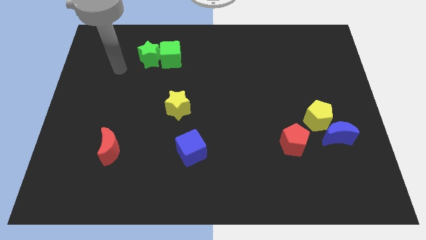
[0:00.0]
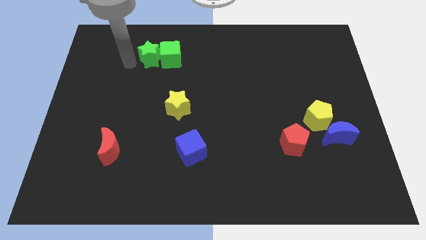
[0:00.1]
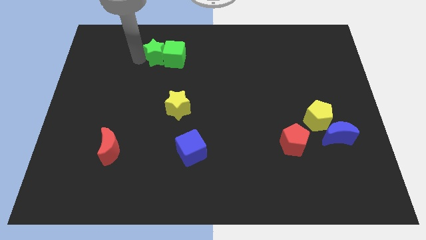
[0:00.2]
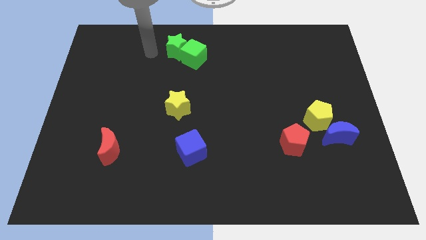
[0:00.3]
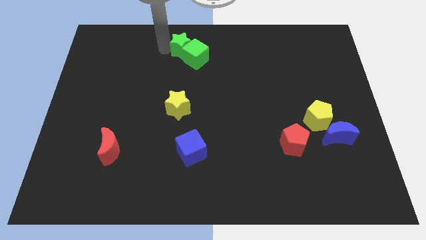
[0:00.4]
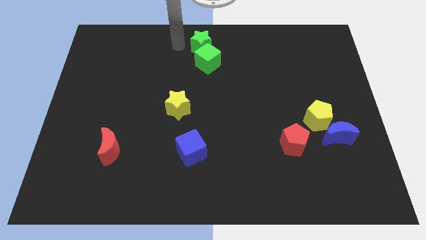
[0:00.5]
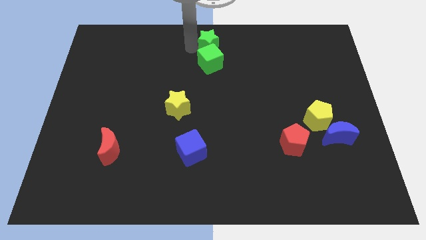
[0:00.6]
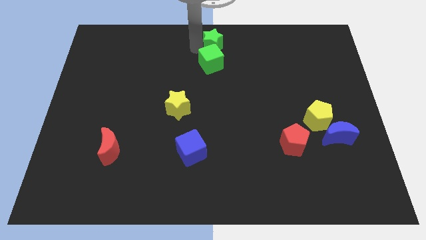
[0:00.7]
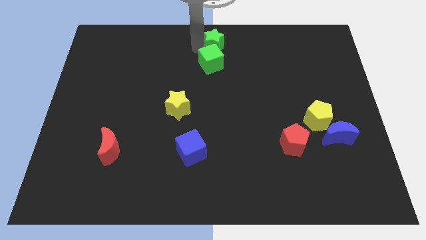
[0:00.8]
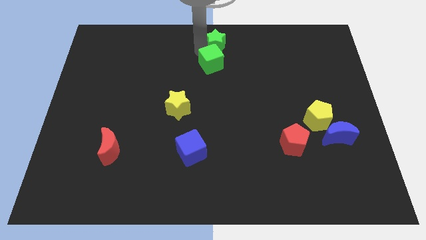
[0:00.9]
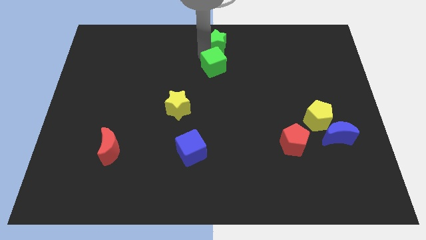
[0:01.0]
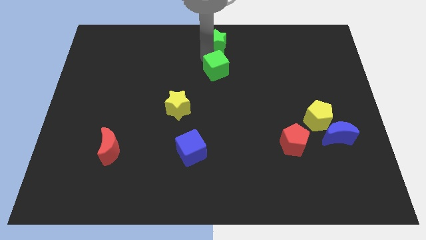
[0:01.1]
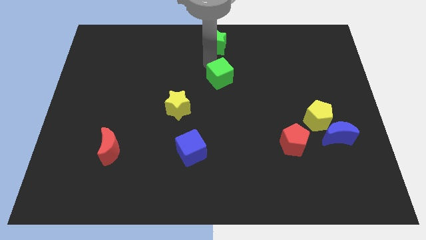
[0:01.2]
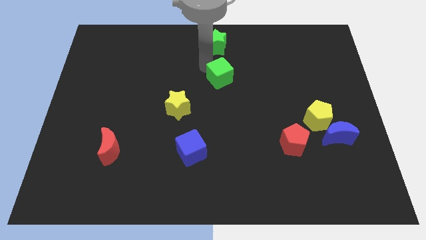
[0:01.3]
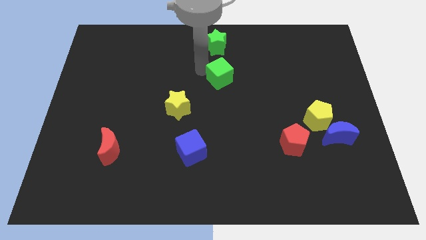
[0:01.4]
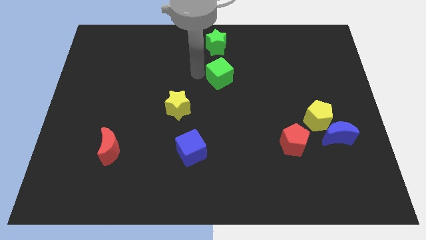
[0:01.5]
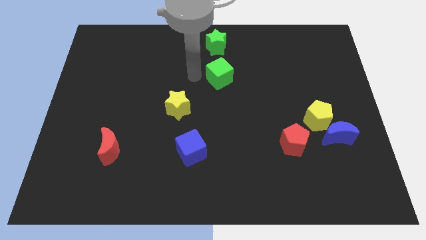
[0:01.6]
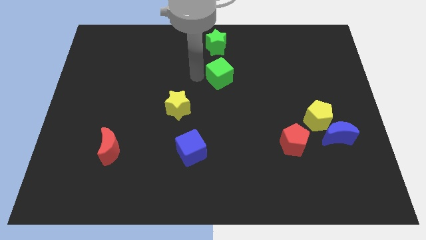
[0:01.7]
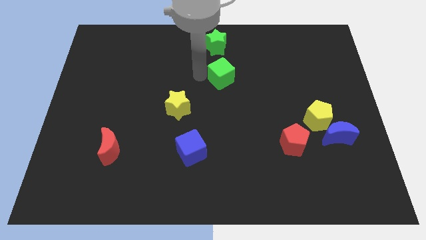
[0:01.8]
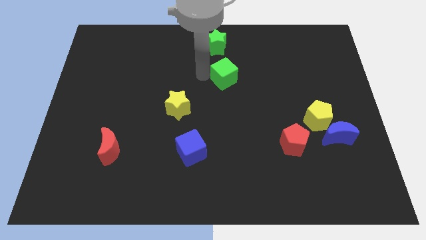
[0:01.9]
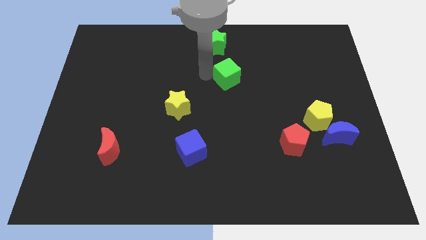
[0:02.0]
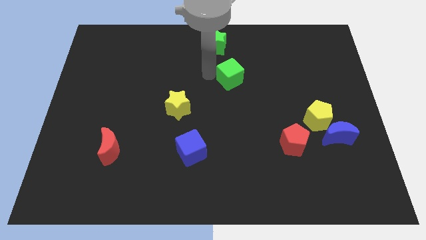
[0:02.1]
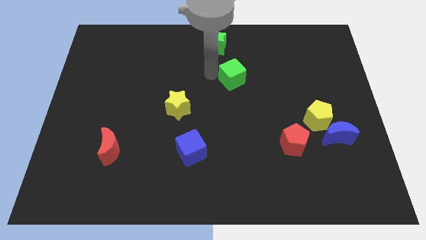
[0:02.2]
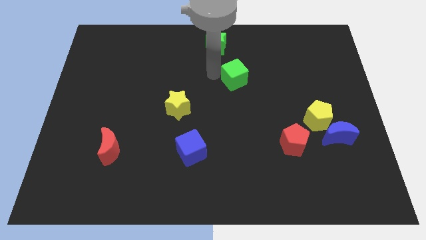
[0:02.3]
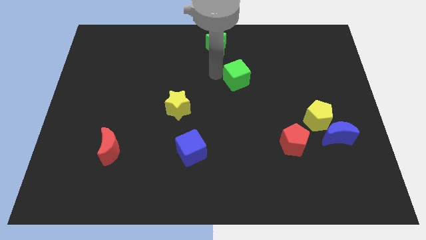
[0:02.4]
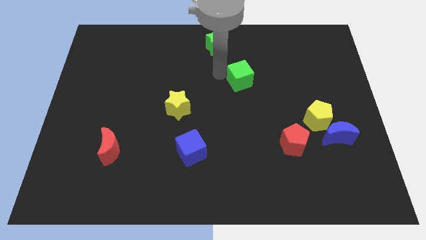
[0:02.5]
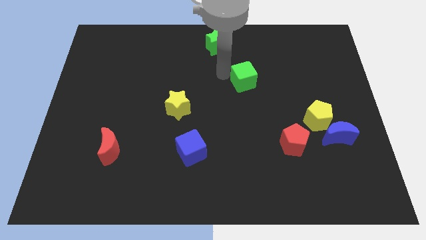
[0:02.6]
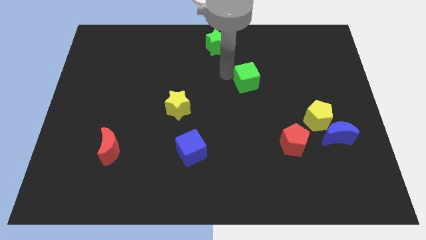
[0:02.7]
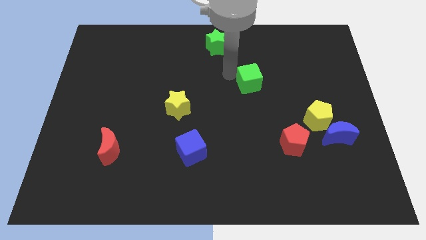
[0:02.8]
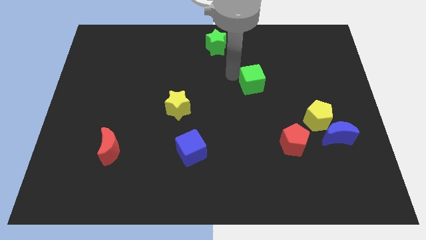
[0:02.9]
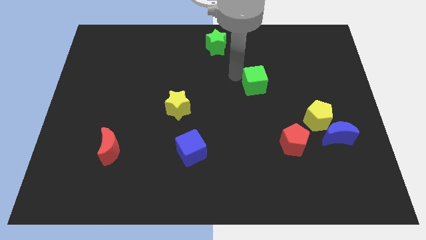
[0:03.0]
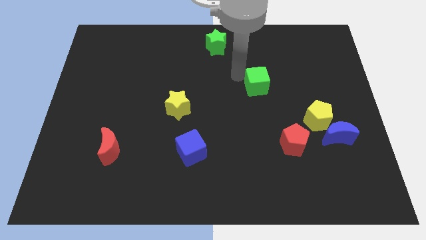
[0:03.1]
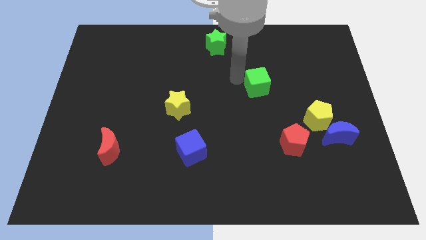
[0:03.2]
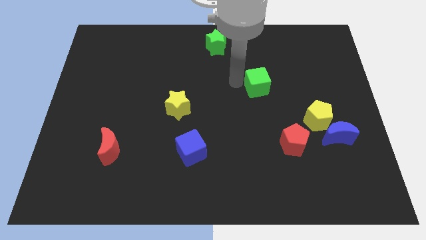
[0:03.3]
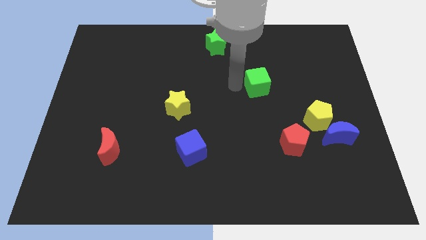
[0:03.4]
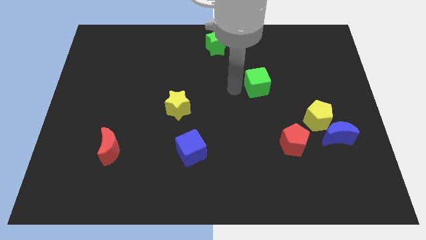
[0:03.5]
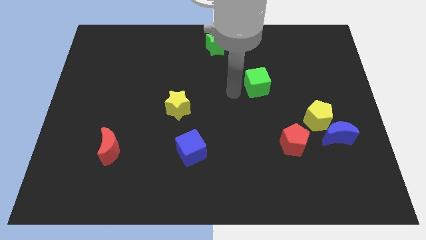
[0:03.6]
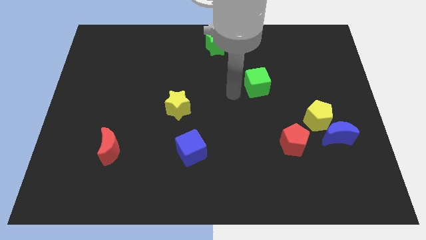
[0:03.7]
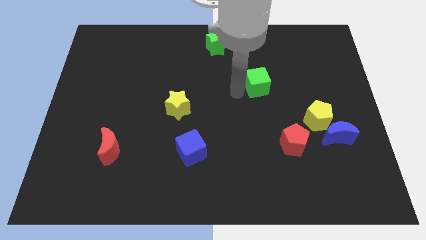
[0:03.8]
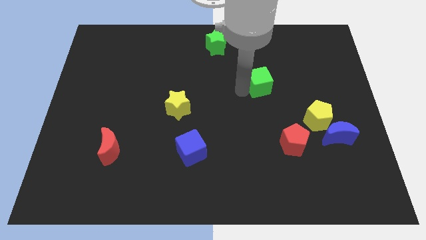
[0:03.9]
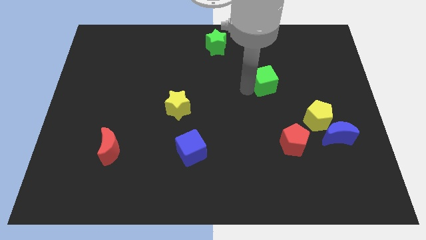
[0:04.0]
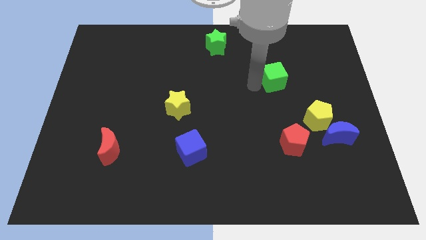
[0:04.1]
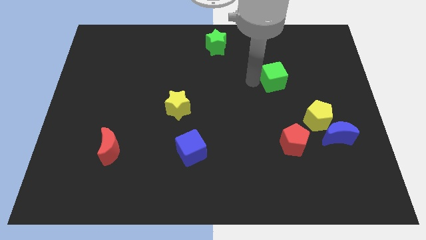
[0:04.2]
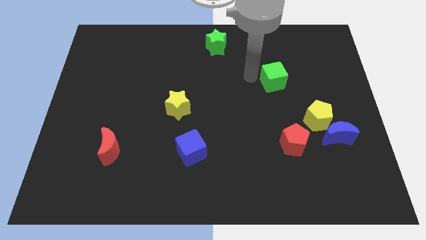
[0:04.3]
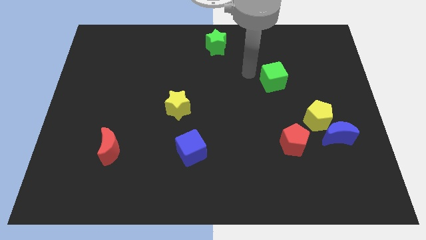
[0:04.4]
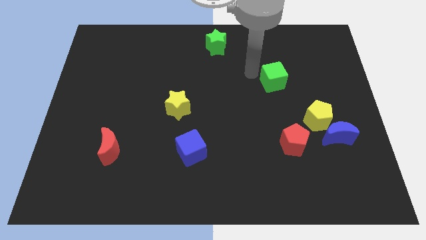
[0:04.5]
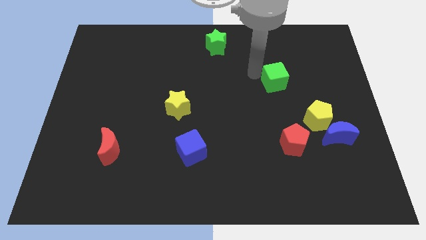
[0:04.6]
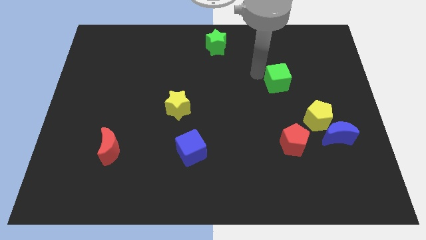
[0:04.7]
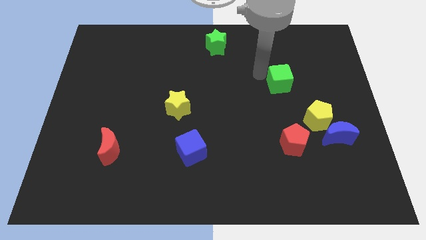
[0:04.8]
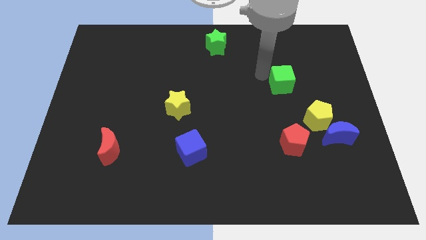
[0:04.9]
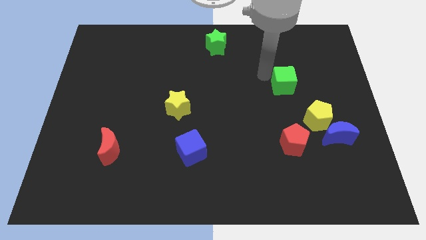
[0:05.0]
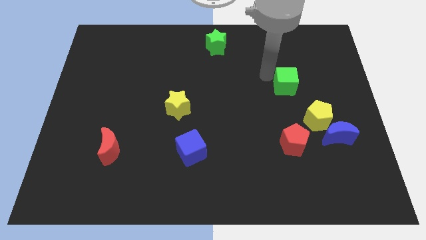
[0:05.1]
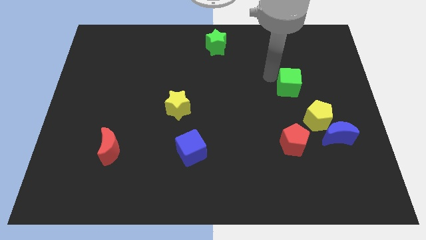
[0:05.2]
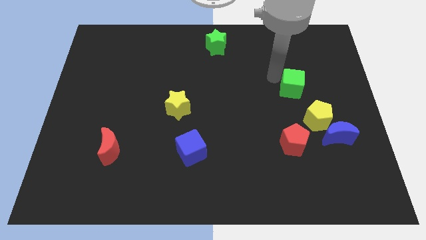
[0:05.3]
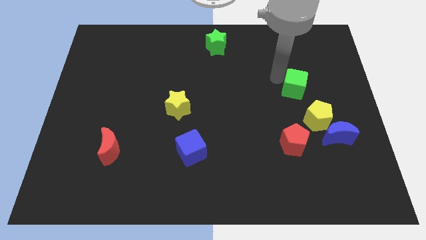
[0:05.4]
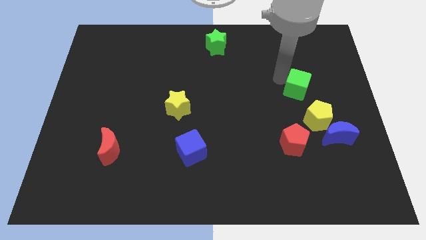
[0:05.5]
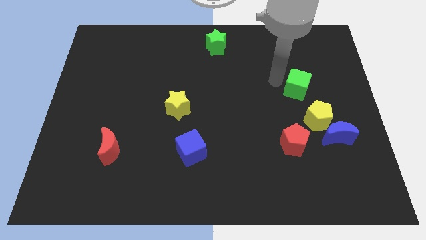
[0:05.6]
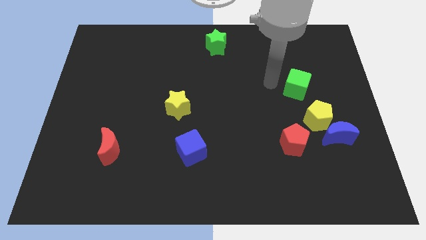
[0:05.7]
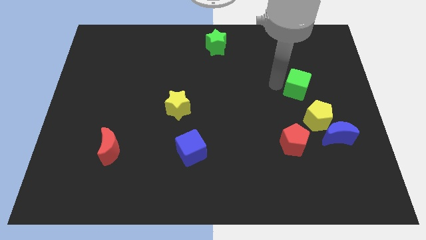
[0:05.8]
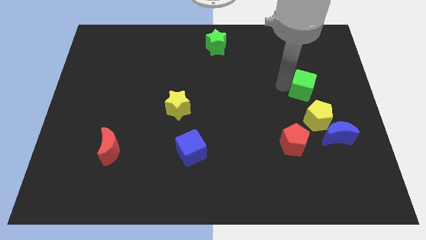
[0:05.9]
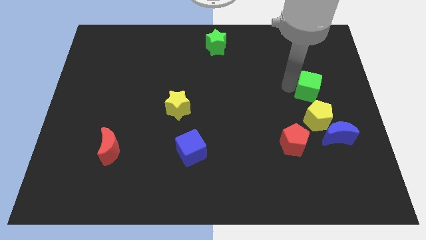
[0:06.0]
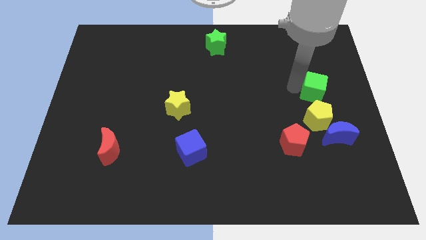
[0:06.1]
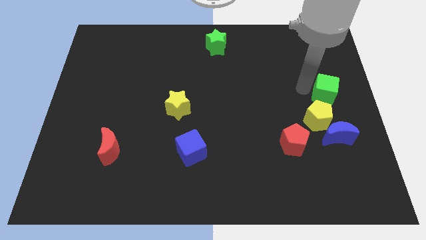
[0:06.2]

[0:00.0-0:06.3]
put the green cube to the right side

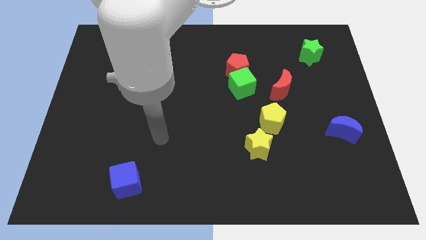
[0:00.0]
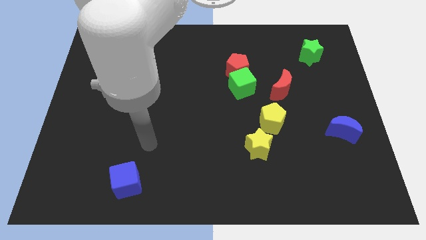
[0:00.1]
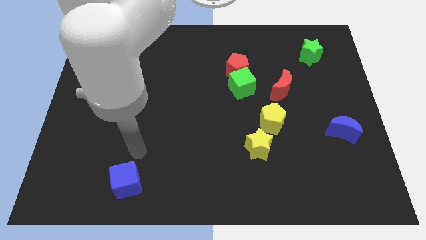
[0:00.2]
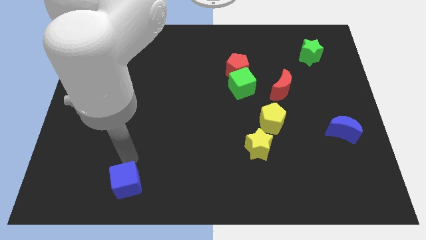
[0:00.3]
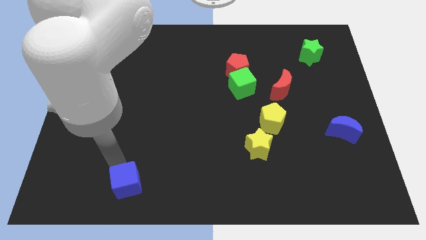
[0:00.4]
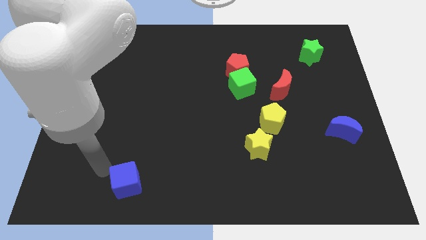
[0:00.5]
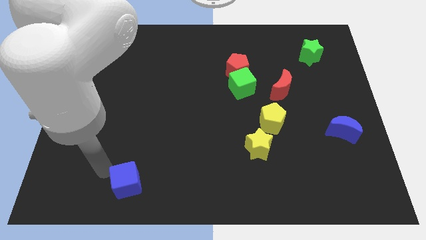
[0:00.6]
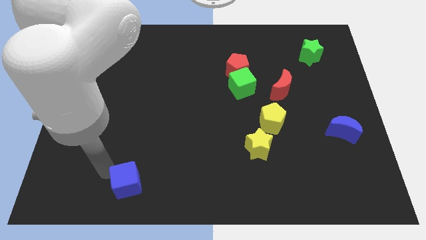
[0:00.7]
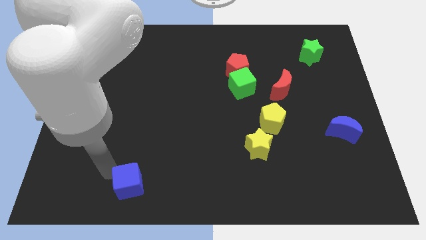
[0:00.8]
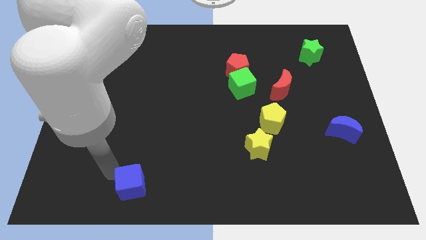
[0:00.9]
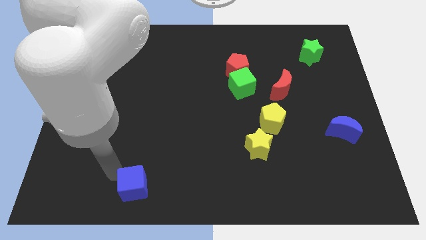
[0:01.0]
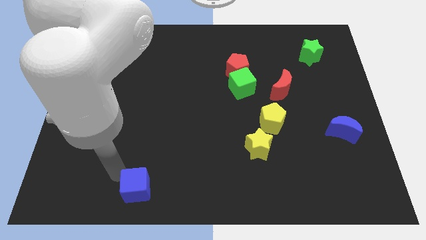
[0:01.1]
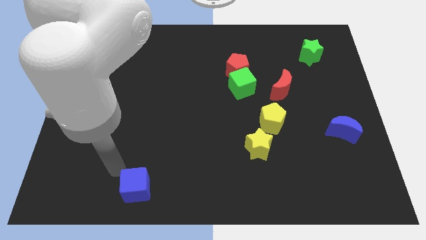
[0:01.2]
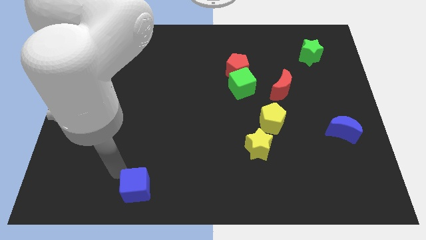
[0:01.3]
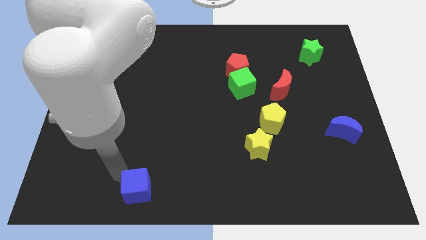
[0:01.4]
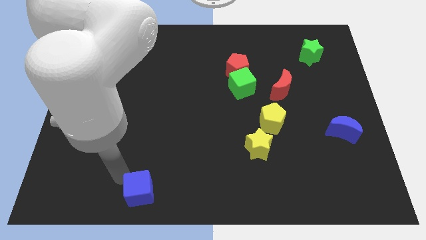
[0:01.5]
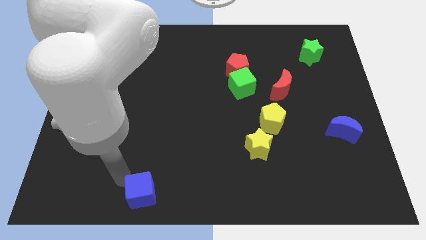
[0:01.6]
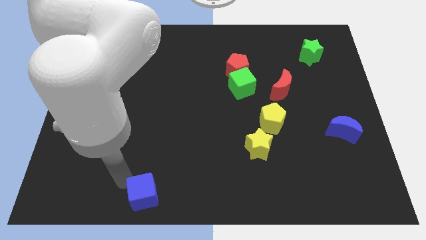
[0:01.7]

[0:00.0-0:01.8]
slide the blue cube to the bottom side
